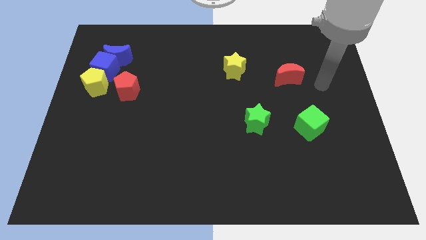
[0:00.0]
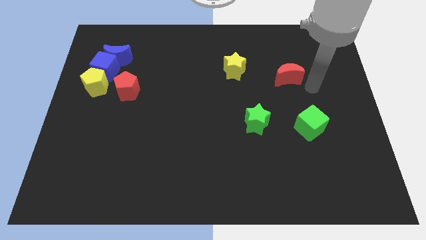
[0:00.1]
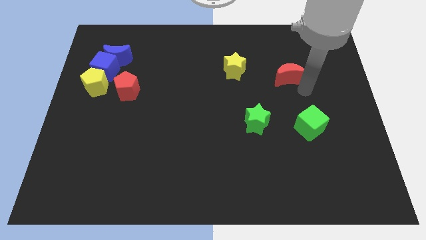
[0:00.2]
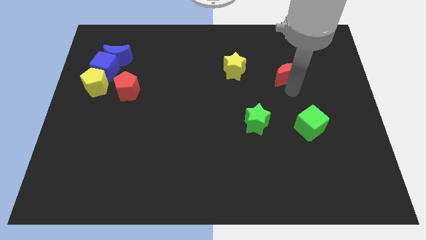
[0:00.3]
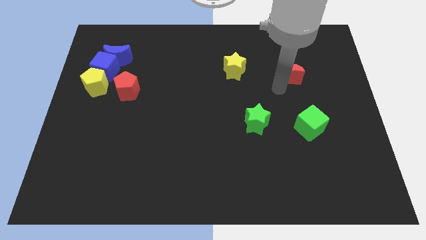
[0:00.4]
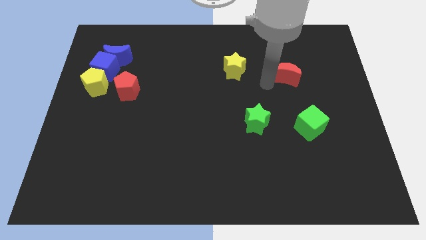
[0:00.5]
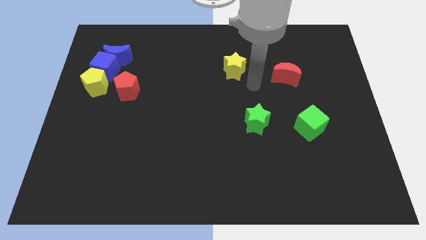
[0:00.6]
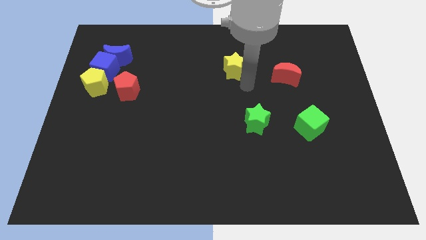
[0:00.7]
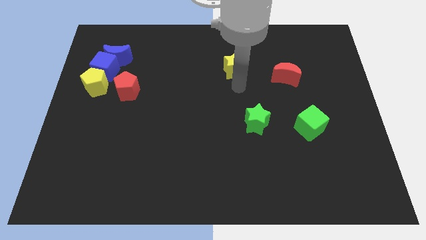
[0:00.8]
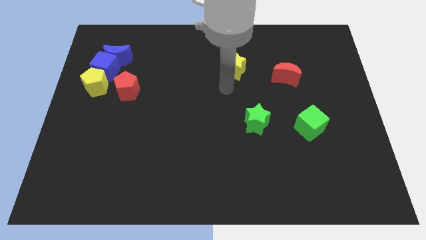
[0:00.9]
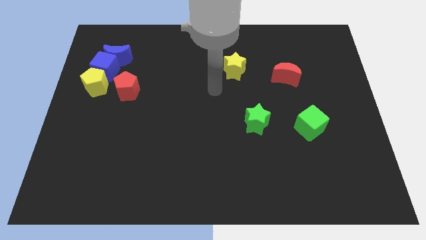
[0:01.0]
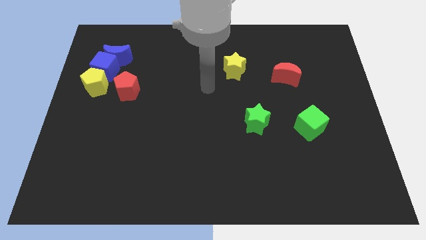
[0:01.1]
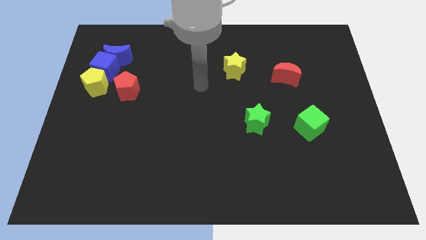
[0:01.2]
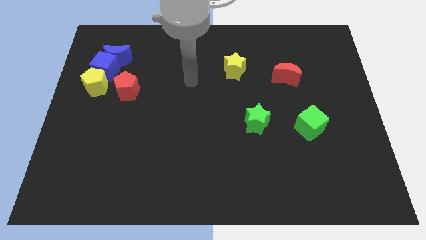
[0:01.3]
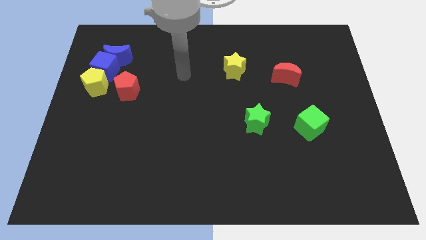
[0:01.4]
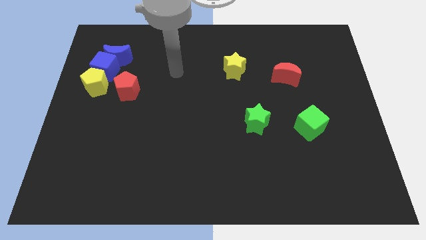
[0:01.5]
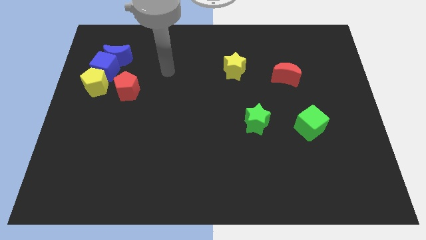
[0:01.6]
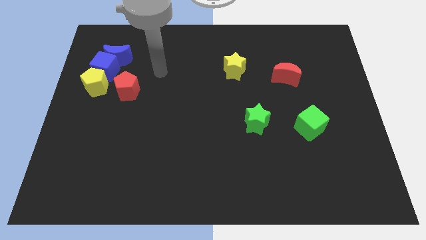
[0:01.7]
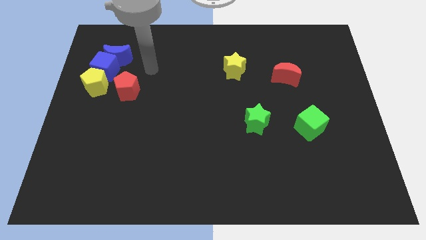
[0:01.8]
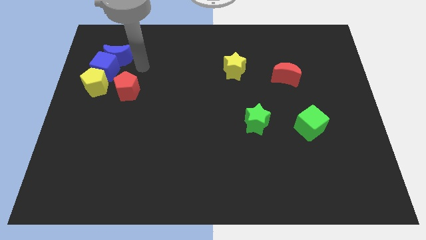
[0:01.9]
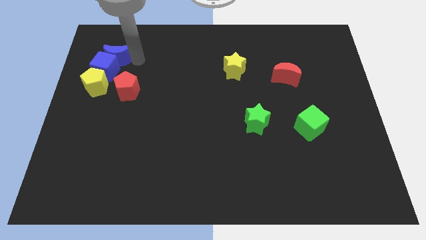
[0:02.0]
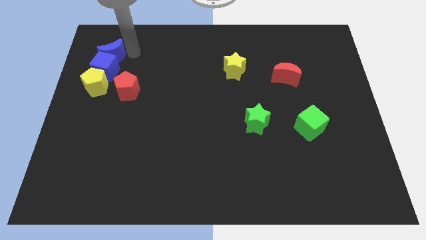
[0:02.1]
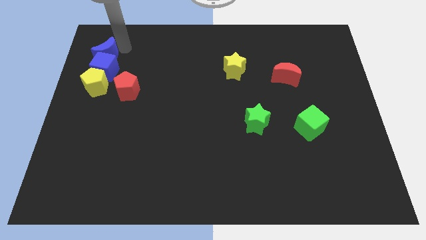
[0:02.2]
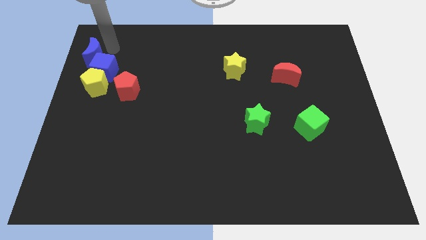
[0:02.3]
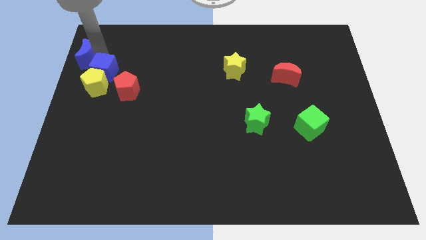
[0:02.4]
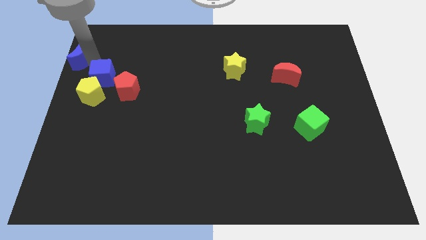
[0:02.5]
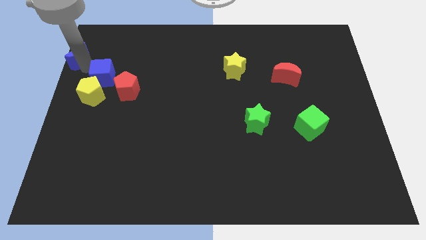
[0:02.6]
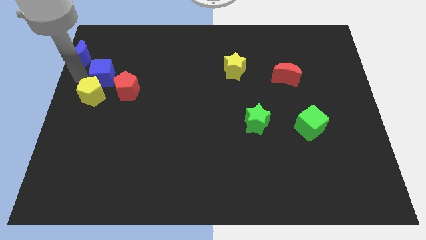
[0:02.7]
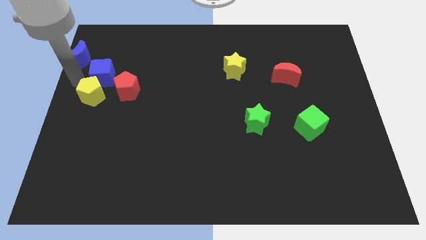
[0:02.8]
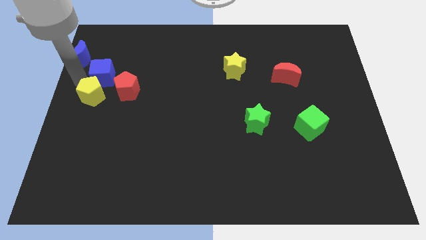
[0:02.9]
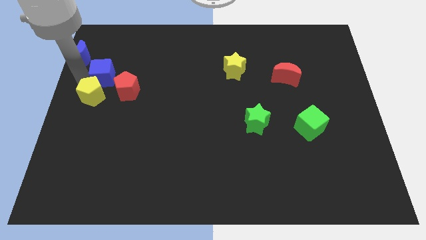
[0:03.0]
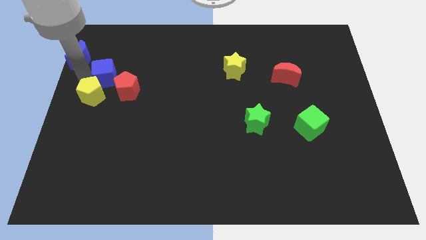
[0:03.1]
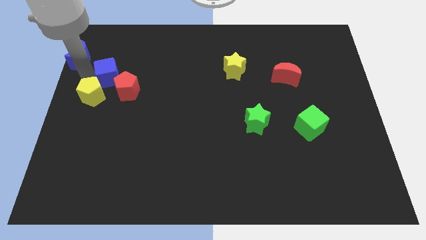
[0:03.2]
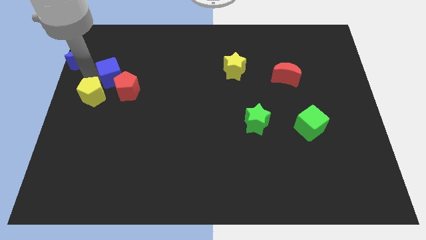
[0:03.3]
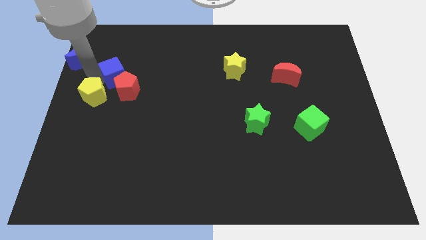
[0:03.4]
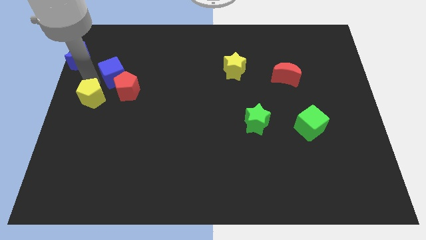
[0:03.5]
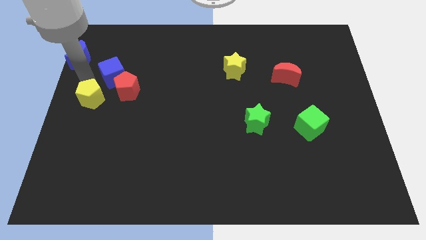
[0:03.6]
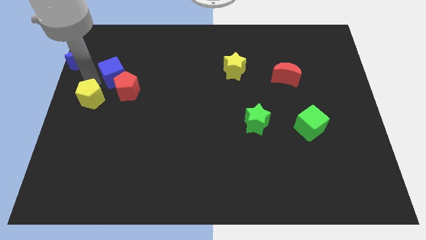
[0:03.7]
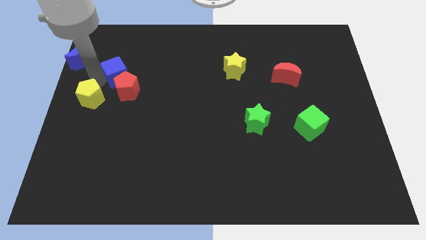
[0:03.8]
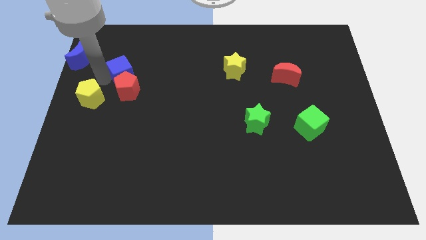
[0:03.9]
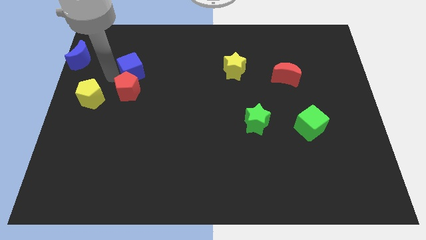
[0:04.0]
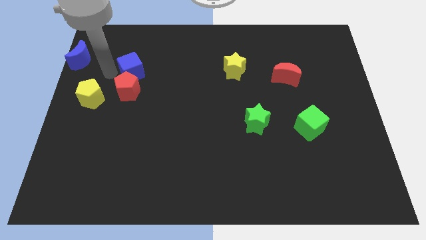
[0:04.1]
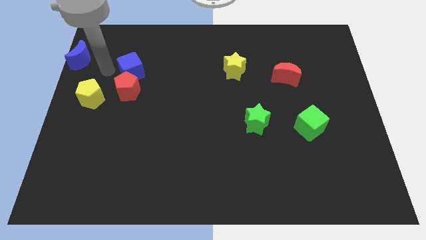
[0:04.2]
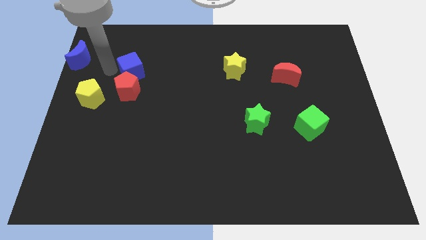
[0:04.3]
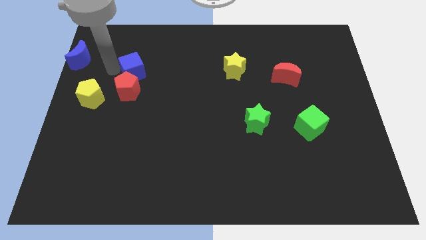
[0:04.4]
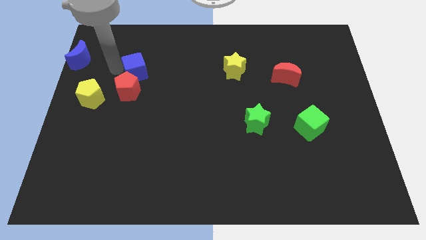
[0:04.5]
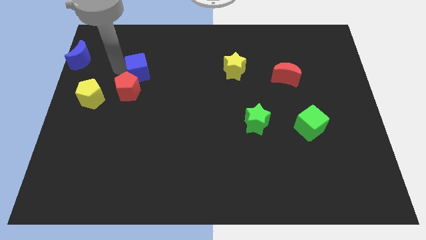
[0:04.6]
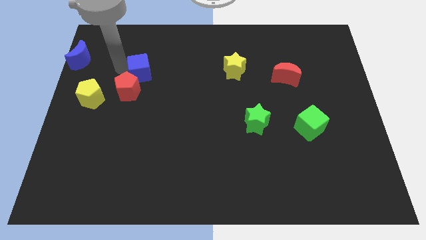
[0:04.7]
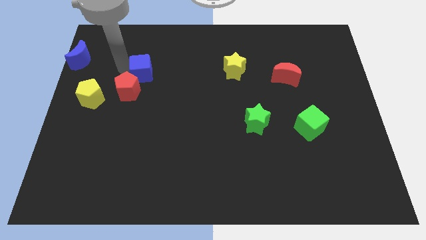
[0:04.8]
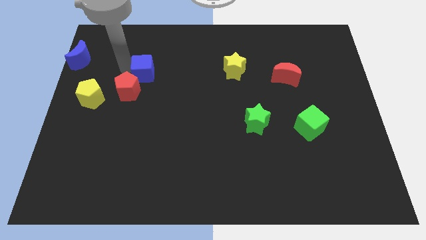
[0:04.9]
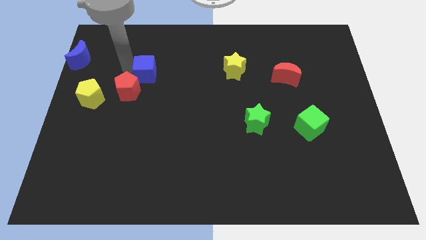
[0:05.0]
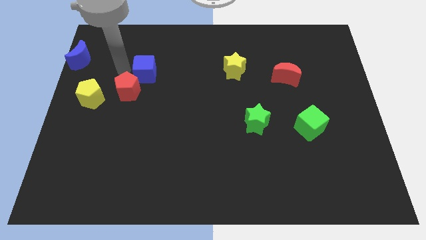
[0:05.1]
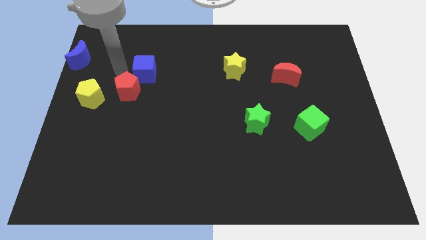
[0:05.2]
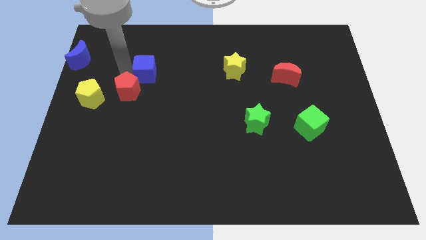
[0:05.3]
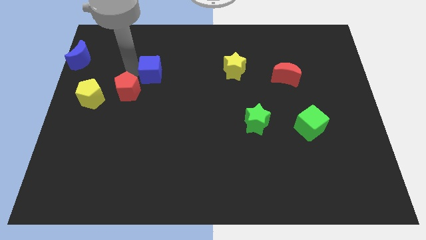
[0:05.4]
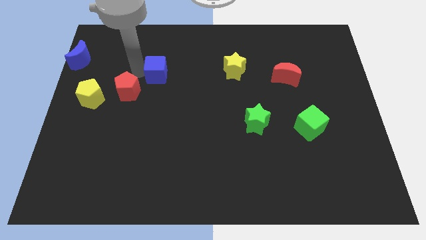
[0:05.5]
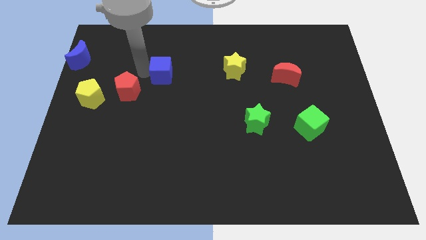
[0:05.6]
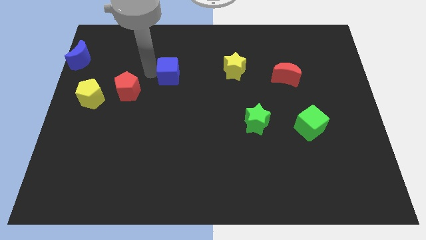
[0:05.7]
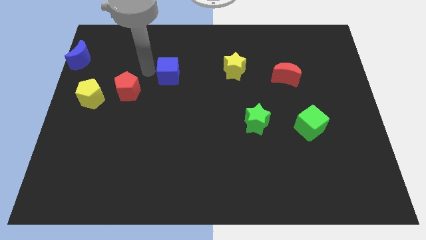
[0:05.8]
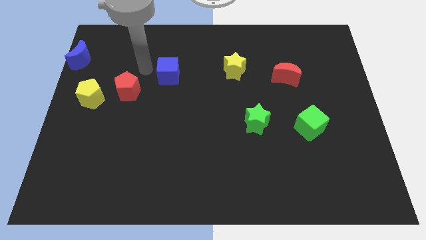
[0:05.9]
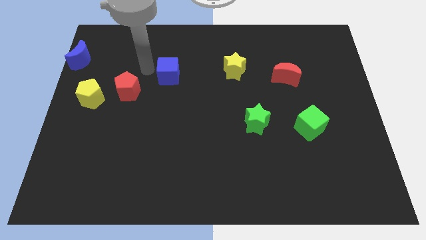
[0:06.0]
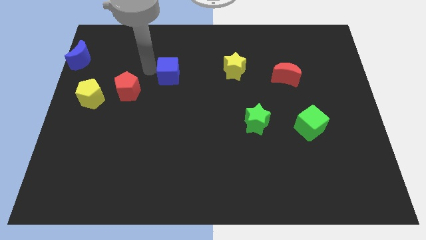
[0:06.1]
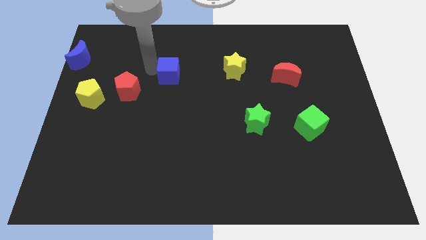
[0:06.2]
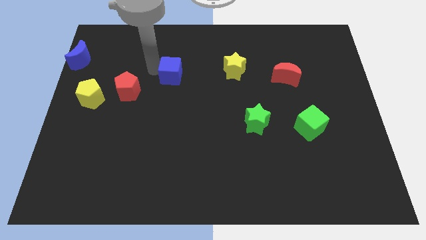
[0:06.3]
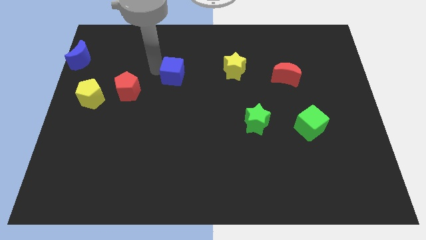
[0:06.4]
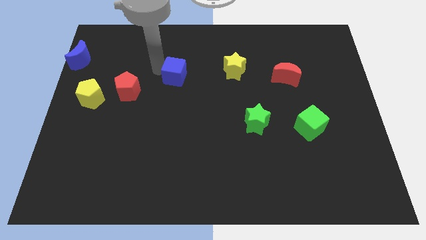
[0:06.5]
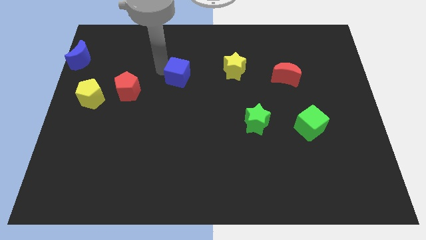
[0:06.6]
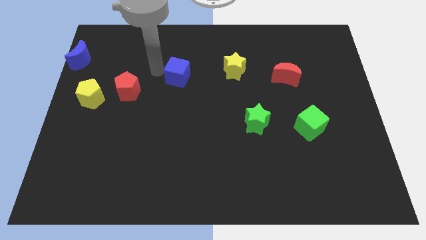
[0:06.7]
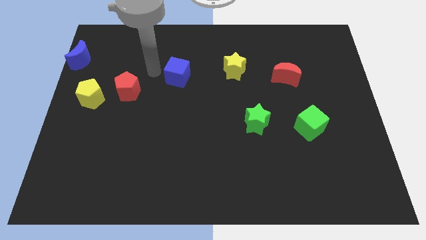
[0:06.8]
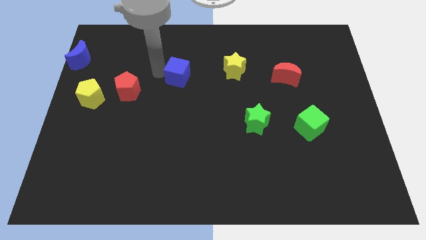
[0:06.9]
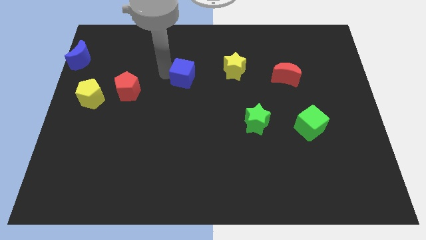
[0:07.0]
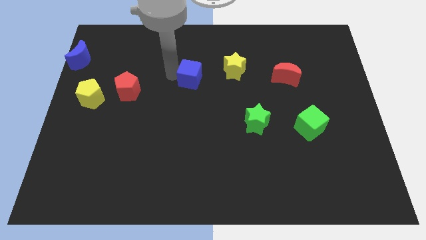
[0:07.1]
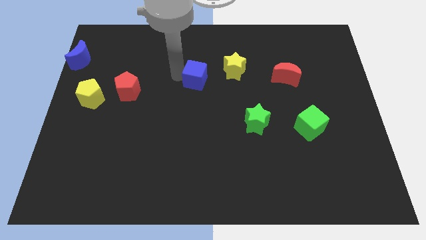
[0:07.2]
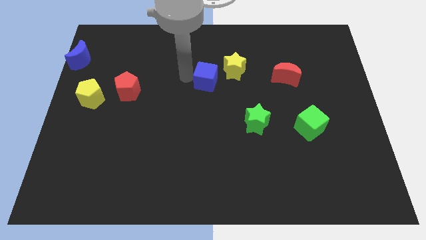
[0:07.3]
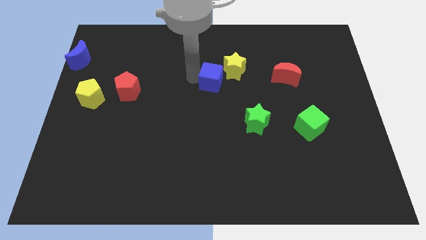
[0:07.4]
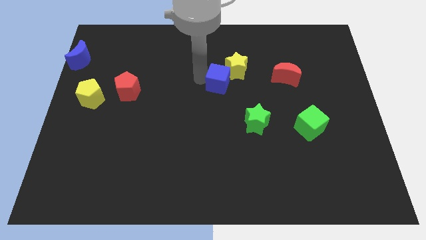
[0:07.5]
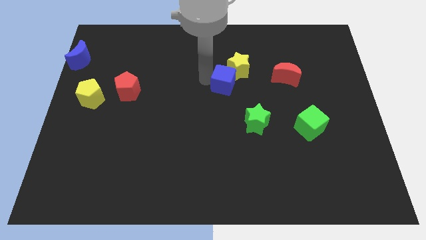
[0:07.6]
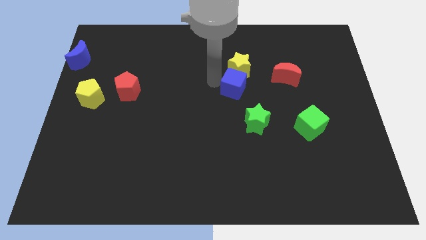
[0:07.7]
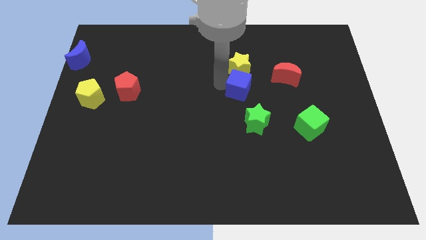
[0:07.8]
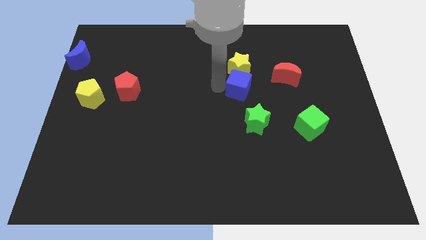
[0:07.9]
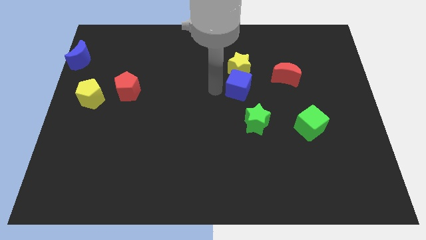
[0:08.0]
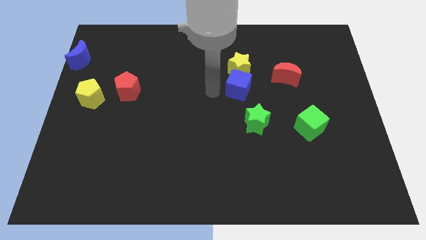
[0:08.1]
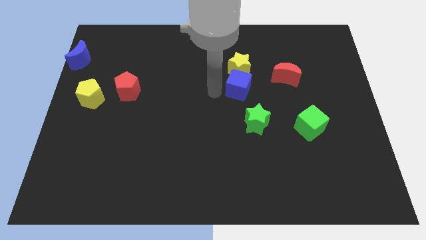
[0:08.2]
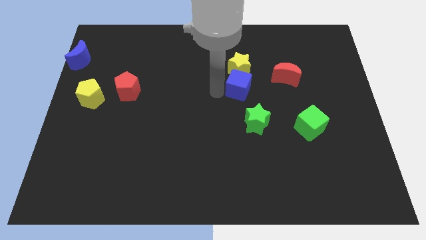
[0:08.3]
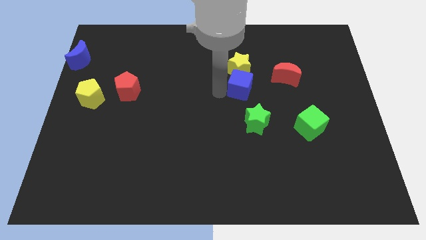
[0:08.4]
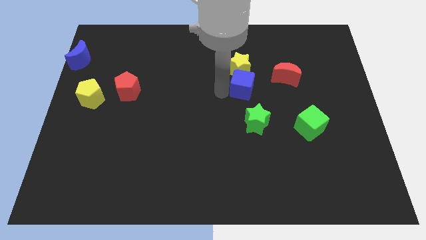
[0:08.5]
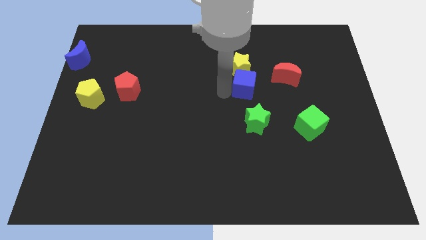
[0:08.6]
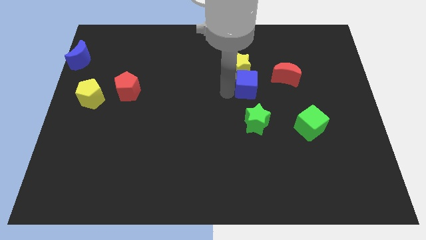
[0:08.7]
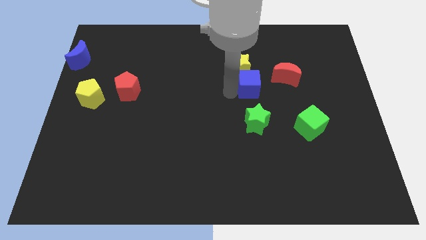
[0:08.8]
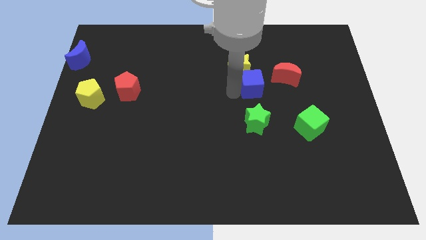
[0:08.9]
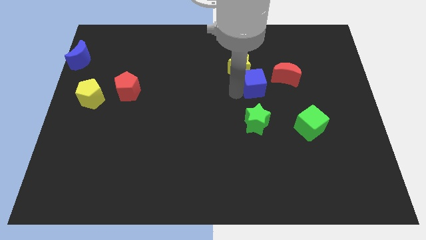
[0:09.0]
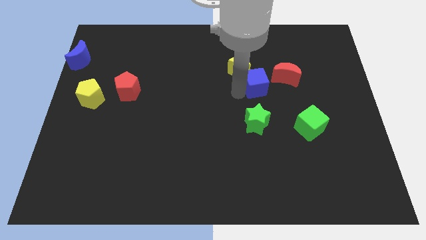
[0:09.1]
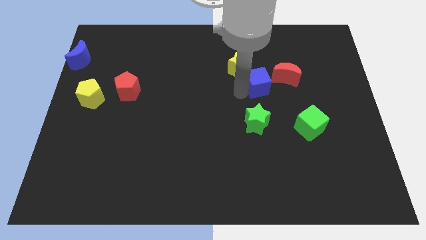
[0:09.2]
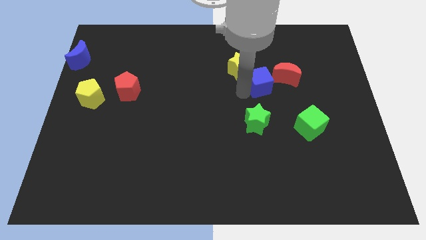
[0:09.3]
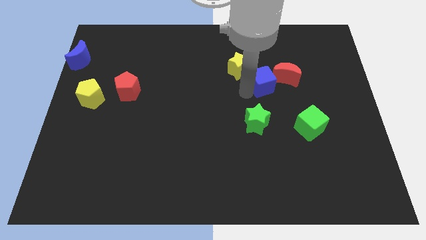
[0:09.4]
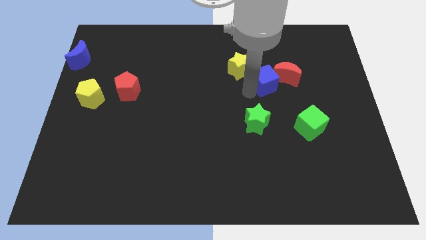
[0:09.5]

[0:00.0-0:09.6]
put the blue cube close to the red moon
